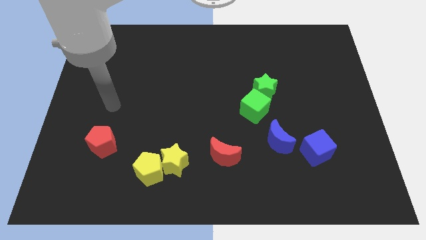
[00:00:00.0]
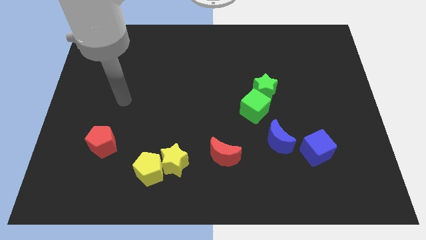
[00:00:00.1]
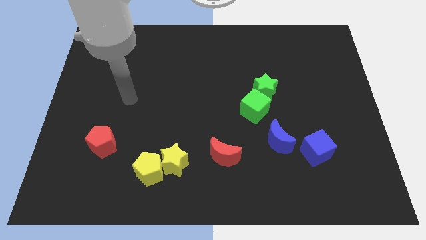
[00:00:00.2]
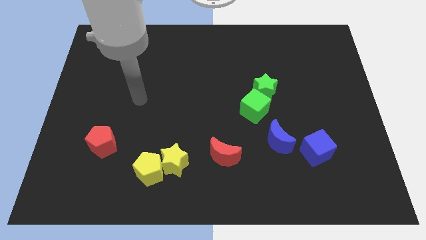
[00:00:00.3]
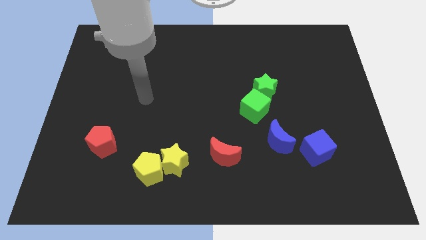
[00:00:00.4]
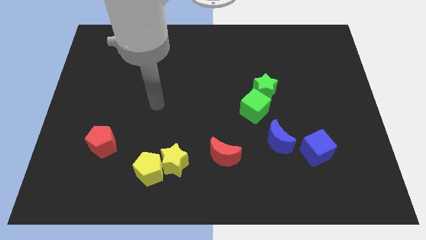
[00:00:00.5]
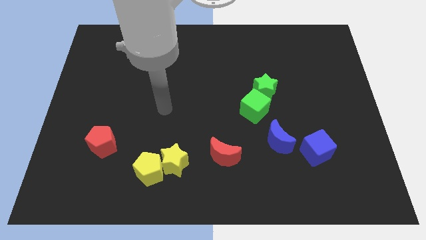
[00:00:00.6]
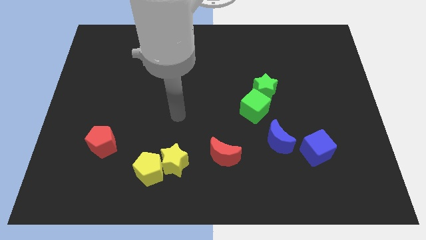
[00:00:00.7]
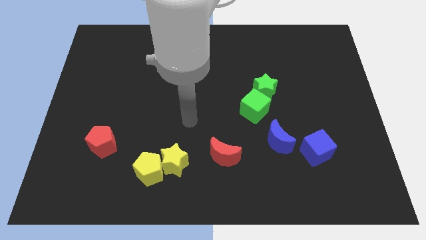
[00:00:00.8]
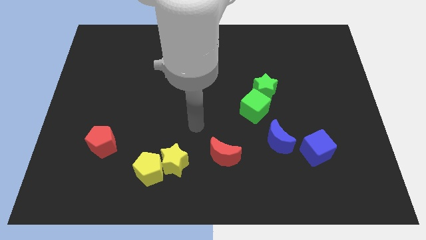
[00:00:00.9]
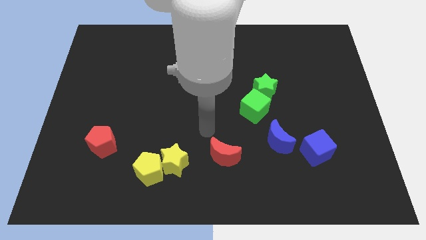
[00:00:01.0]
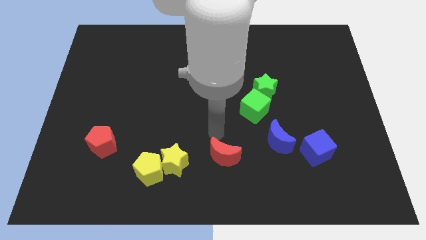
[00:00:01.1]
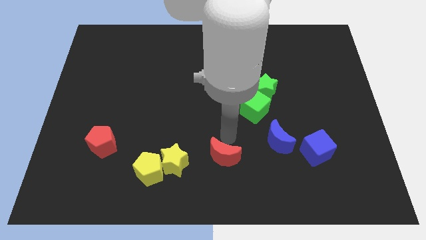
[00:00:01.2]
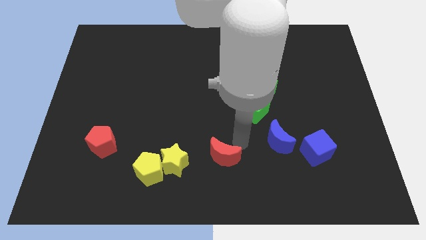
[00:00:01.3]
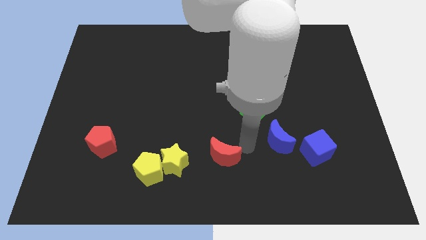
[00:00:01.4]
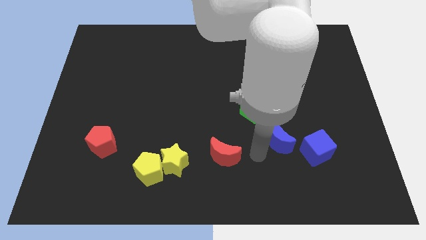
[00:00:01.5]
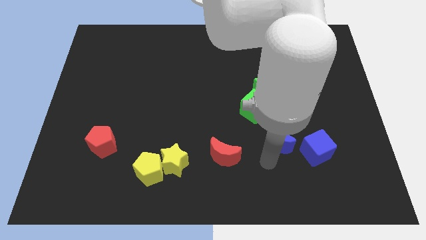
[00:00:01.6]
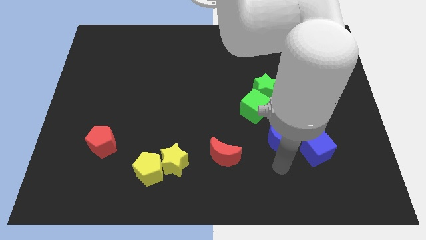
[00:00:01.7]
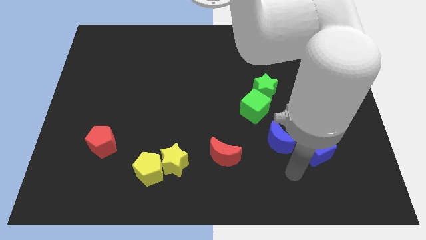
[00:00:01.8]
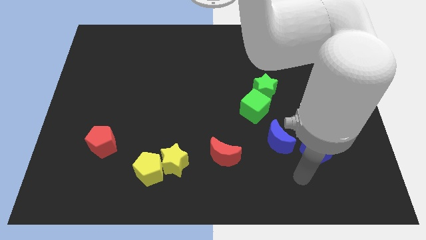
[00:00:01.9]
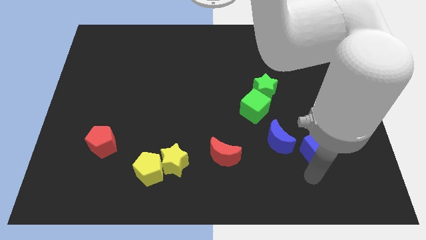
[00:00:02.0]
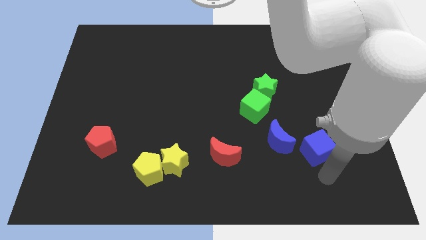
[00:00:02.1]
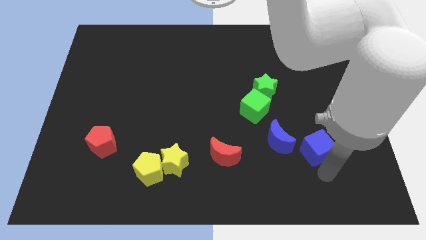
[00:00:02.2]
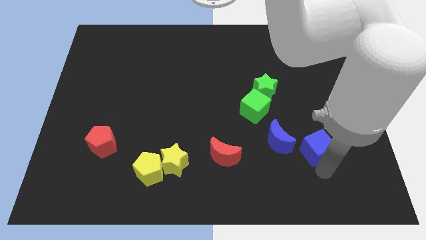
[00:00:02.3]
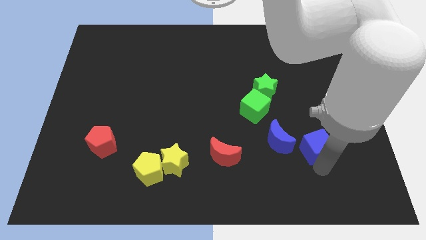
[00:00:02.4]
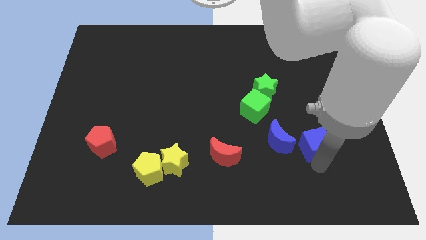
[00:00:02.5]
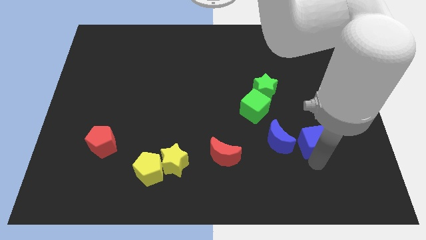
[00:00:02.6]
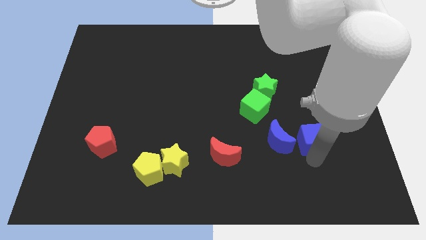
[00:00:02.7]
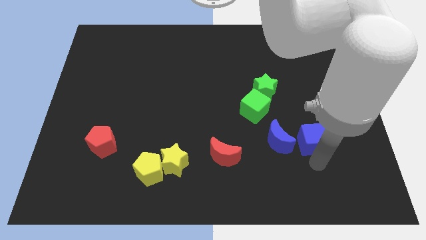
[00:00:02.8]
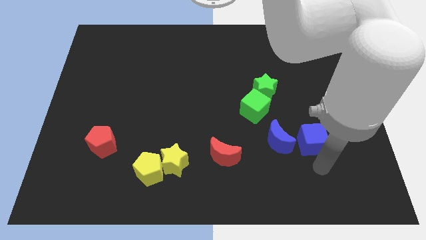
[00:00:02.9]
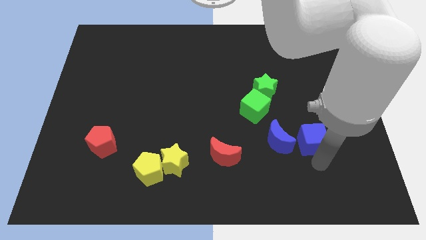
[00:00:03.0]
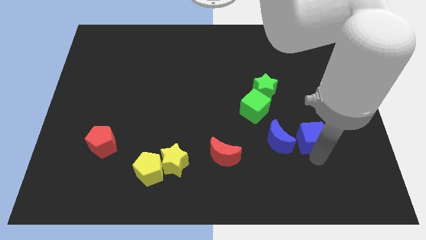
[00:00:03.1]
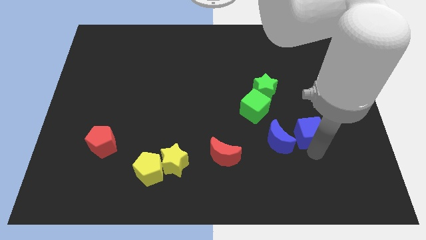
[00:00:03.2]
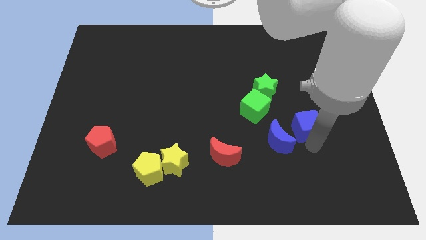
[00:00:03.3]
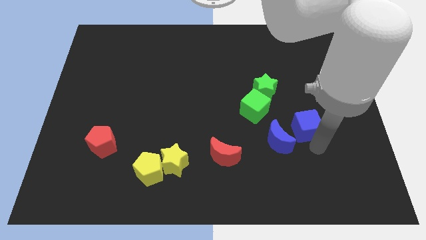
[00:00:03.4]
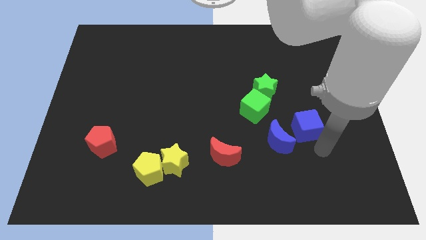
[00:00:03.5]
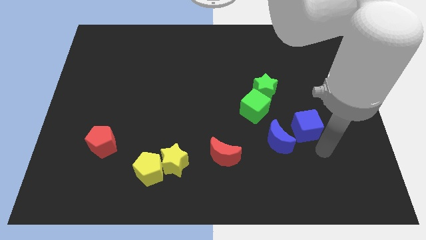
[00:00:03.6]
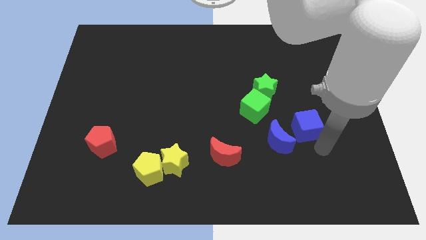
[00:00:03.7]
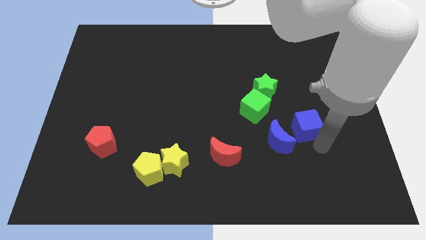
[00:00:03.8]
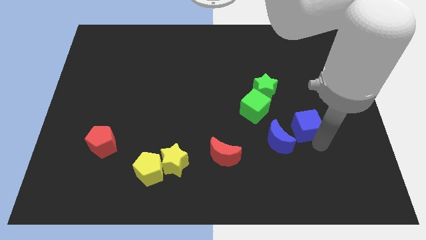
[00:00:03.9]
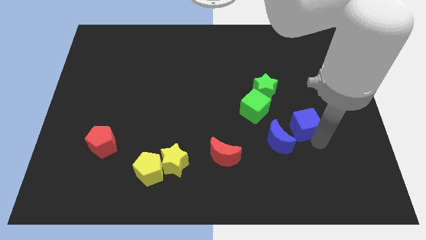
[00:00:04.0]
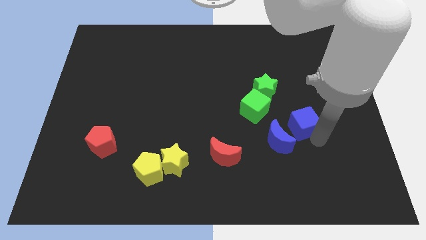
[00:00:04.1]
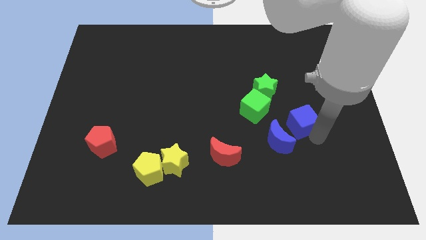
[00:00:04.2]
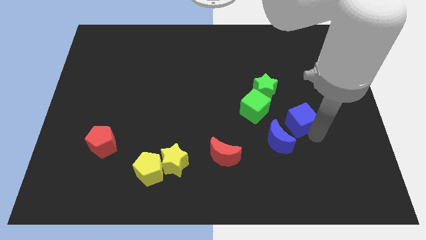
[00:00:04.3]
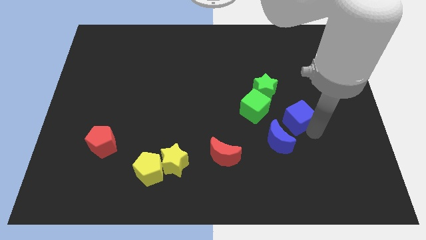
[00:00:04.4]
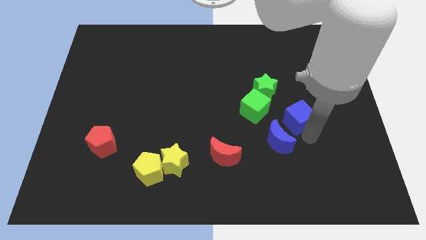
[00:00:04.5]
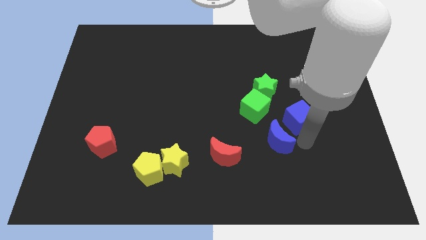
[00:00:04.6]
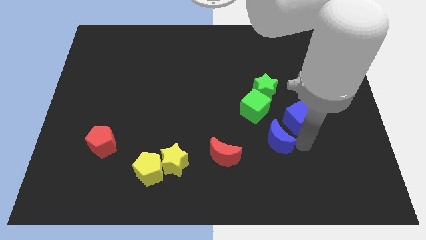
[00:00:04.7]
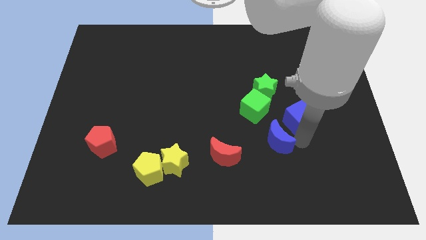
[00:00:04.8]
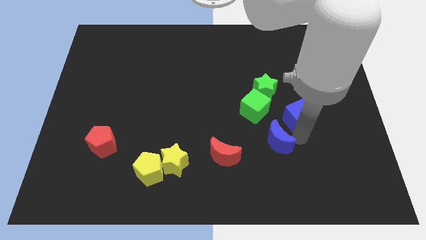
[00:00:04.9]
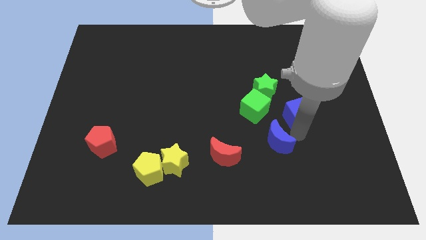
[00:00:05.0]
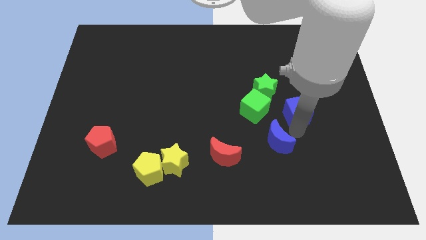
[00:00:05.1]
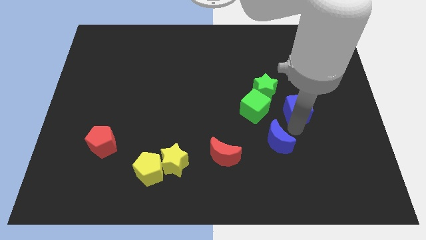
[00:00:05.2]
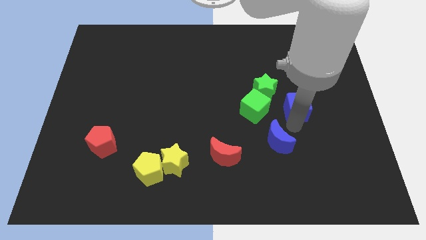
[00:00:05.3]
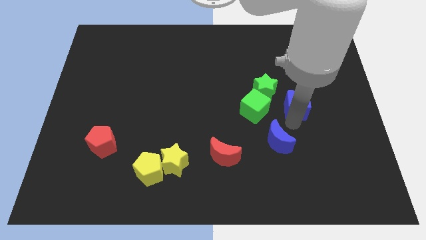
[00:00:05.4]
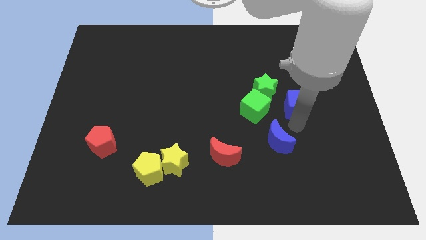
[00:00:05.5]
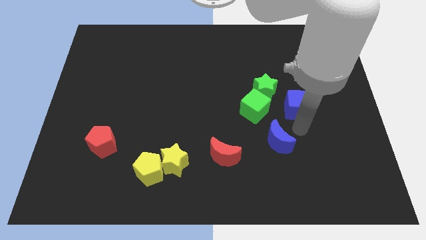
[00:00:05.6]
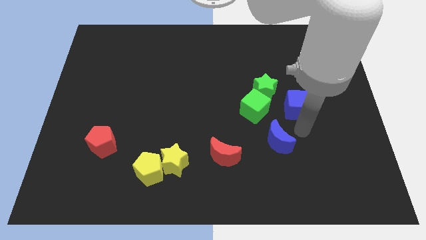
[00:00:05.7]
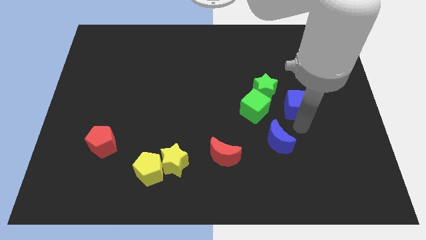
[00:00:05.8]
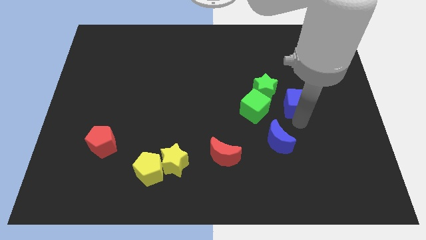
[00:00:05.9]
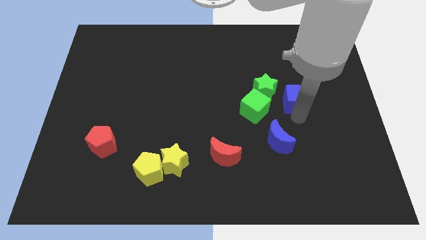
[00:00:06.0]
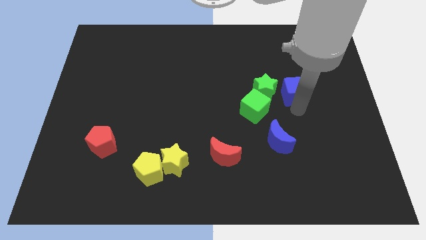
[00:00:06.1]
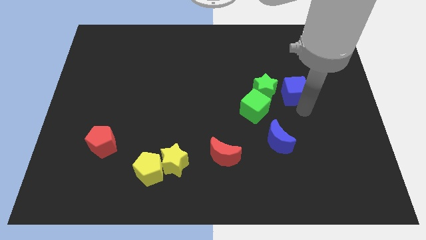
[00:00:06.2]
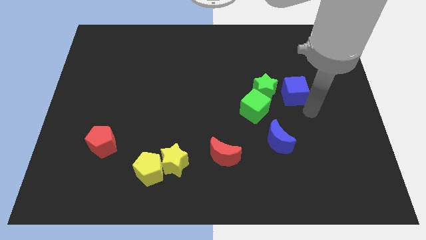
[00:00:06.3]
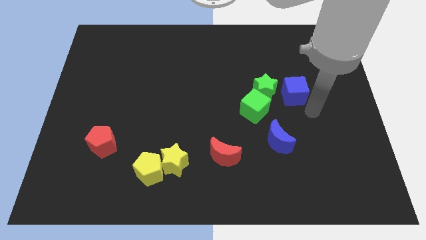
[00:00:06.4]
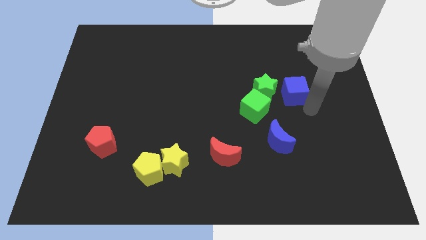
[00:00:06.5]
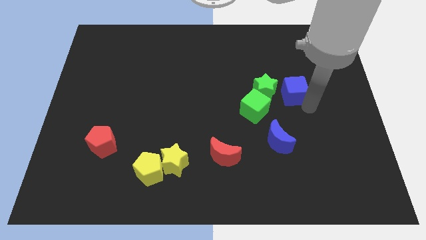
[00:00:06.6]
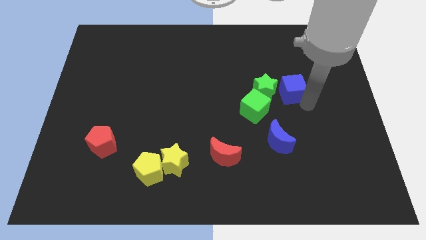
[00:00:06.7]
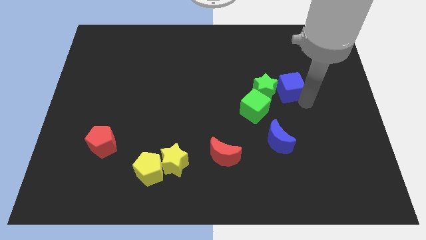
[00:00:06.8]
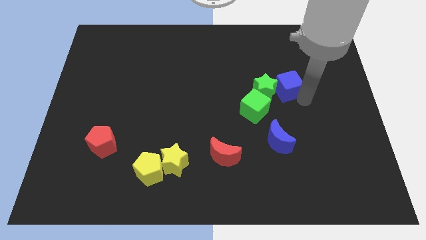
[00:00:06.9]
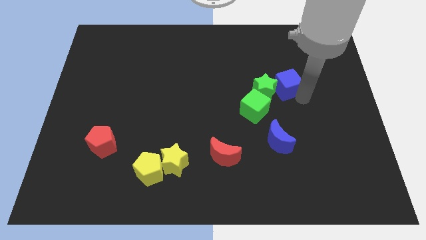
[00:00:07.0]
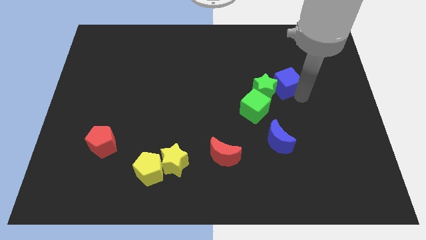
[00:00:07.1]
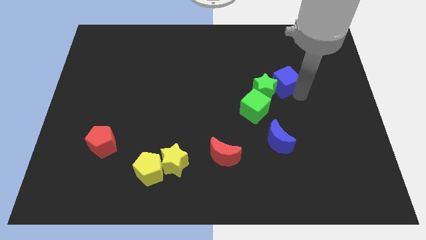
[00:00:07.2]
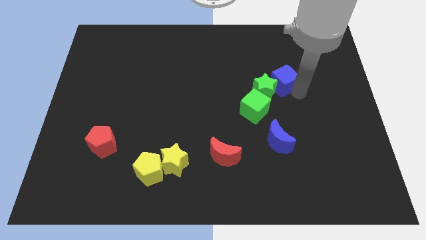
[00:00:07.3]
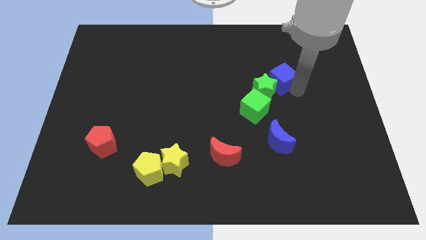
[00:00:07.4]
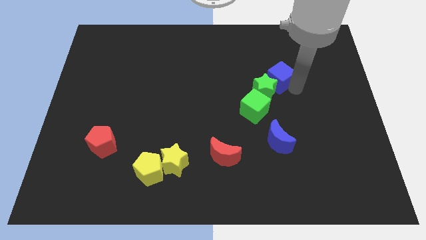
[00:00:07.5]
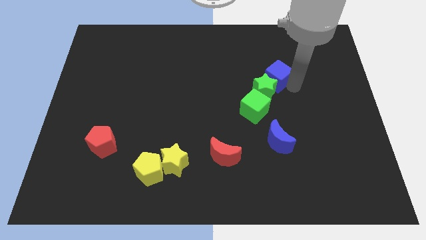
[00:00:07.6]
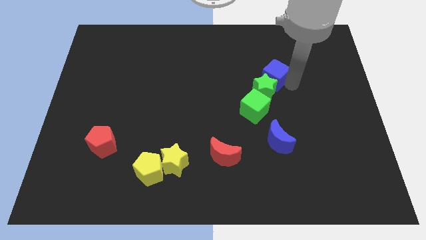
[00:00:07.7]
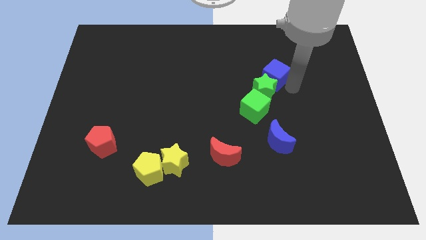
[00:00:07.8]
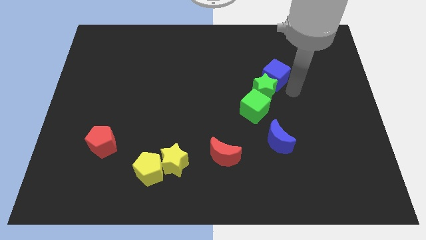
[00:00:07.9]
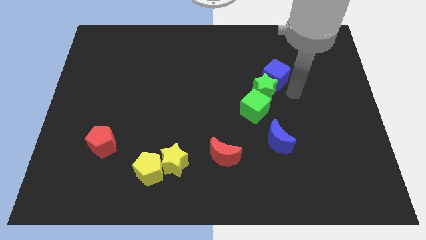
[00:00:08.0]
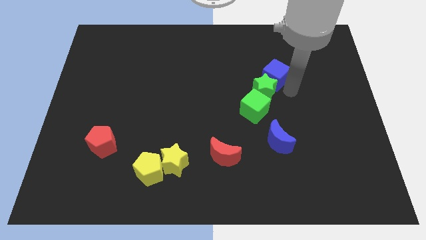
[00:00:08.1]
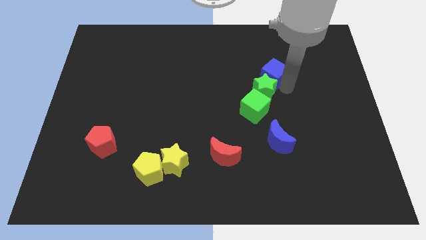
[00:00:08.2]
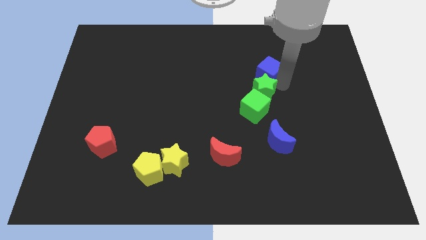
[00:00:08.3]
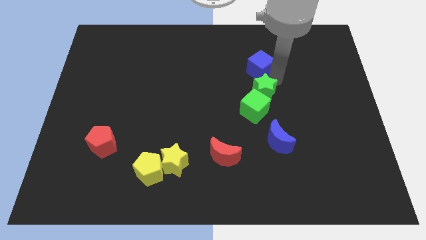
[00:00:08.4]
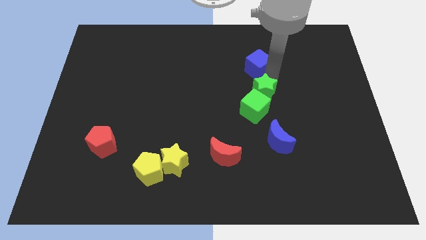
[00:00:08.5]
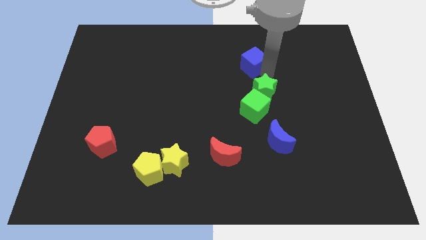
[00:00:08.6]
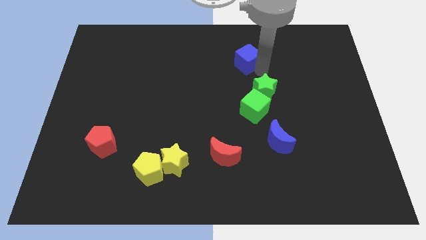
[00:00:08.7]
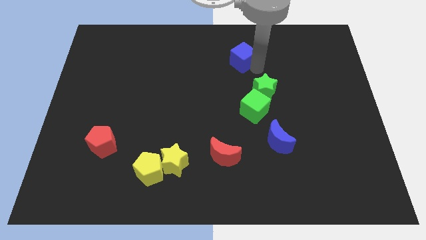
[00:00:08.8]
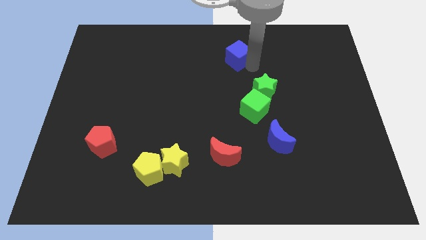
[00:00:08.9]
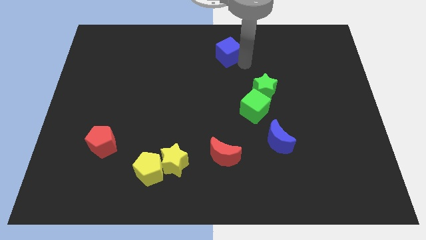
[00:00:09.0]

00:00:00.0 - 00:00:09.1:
slide the blue cube to the top side
